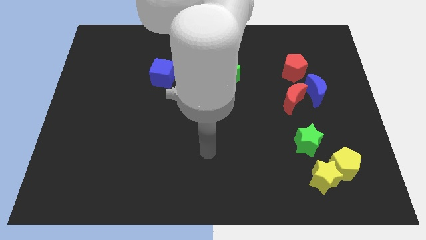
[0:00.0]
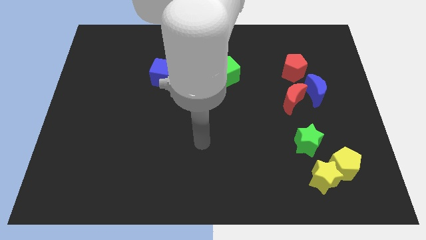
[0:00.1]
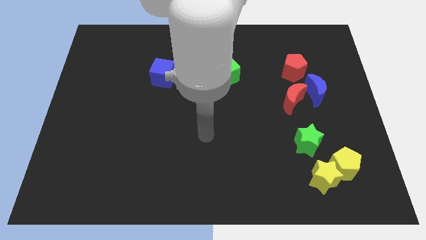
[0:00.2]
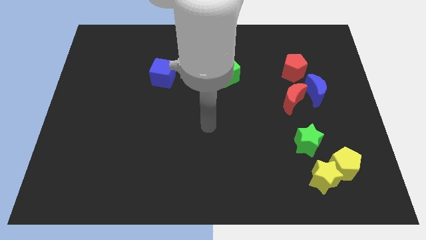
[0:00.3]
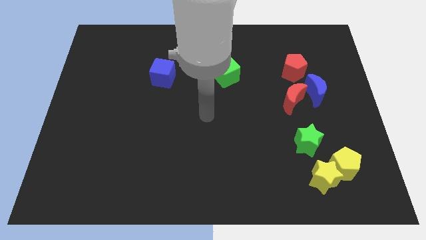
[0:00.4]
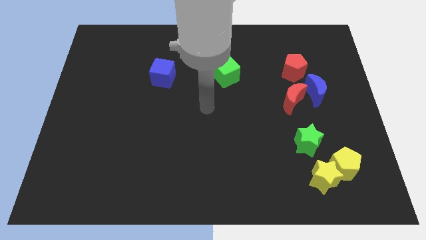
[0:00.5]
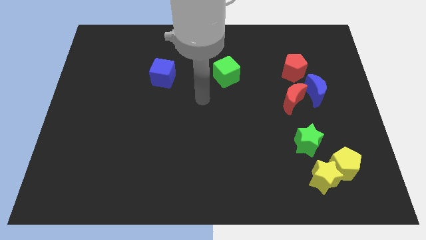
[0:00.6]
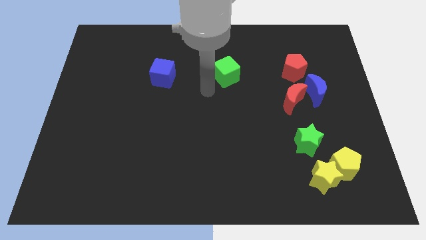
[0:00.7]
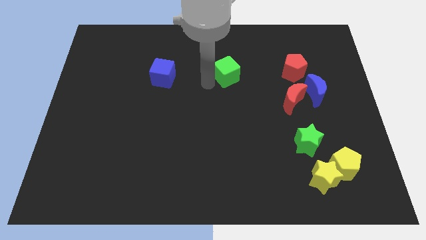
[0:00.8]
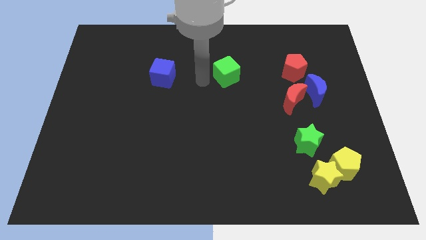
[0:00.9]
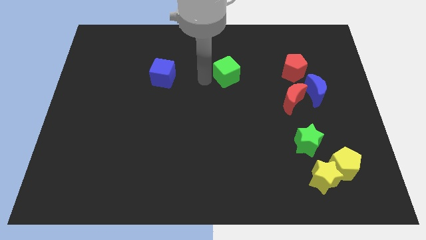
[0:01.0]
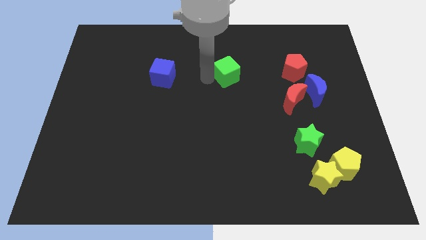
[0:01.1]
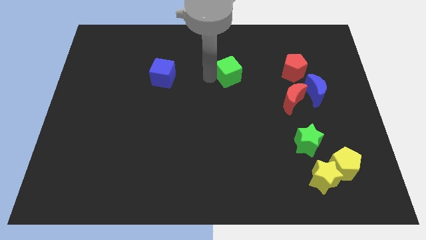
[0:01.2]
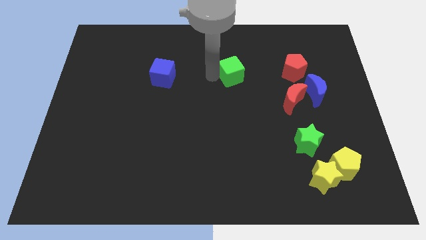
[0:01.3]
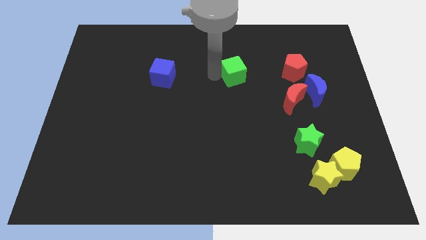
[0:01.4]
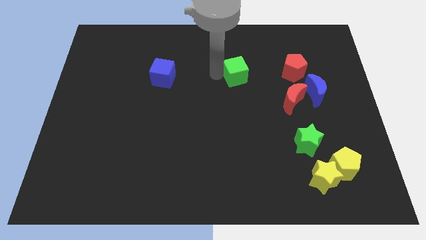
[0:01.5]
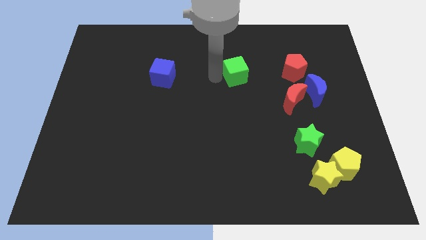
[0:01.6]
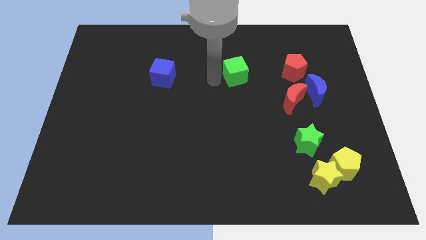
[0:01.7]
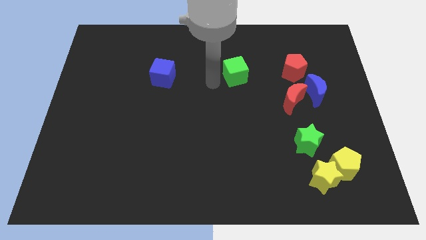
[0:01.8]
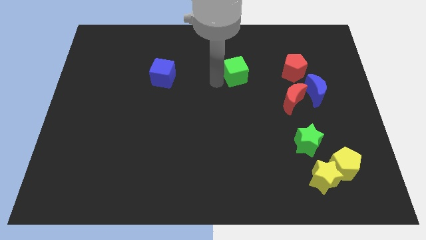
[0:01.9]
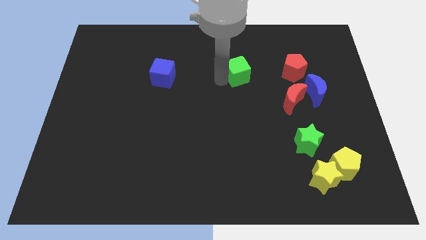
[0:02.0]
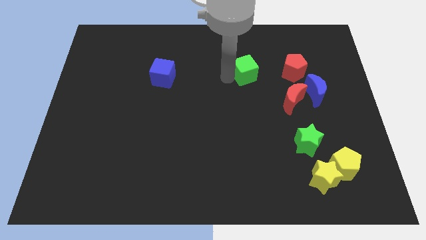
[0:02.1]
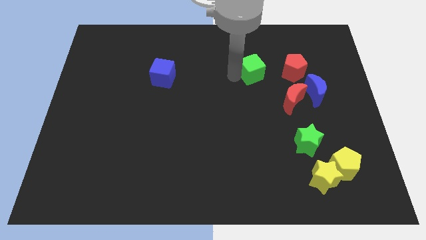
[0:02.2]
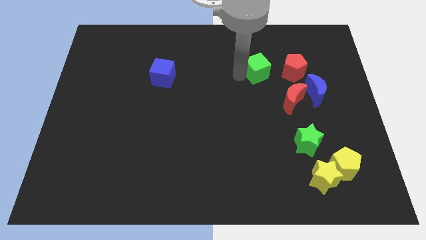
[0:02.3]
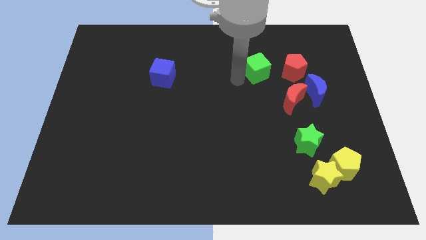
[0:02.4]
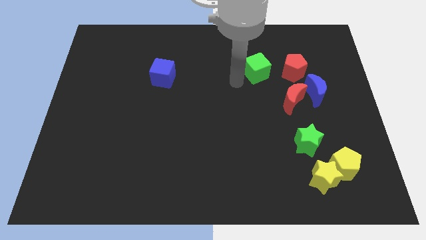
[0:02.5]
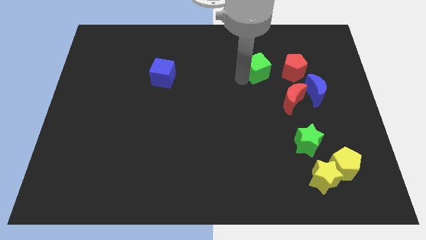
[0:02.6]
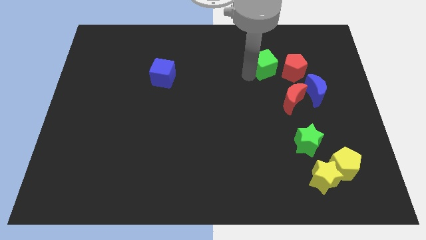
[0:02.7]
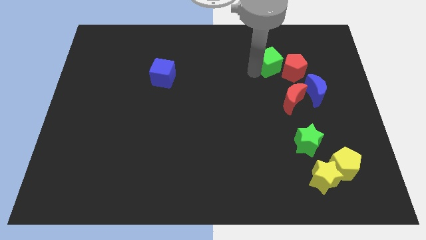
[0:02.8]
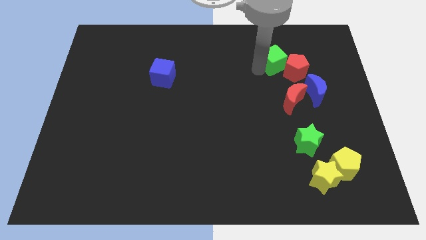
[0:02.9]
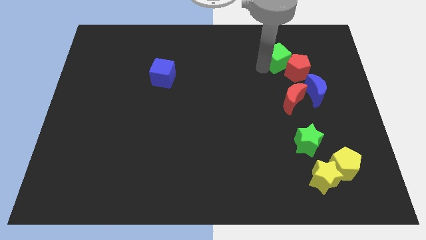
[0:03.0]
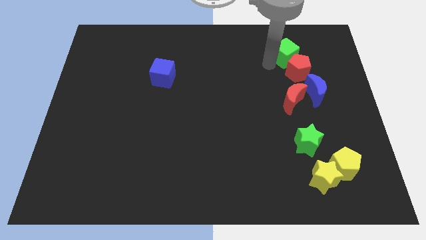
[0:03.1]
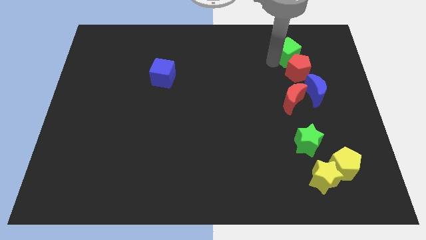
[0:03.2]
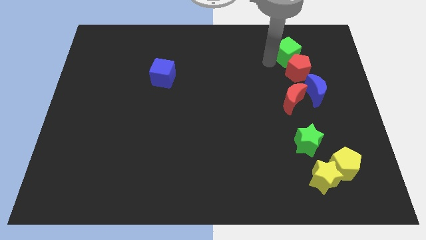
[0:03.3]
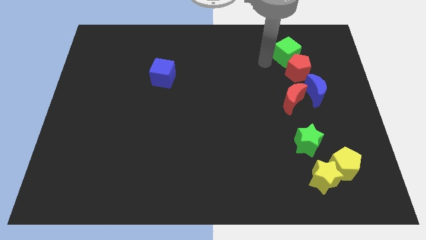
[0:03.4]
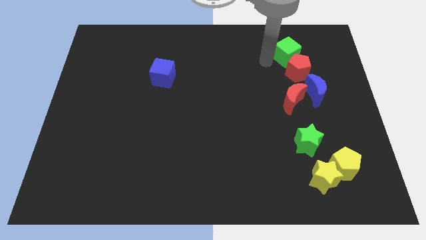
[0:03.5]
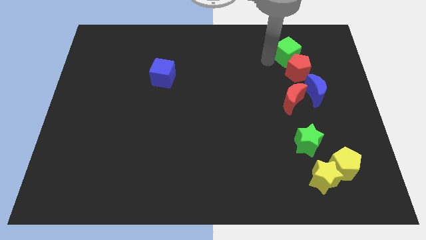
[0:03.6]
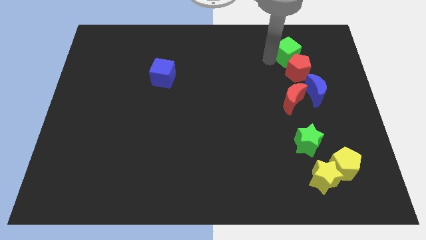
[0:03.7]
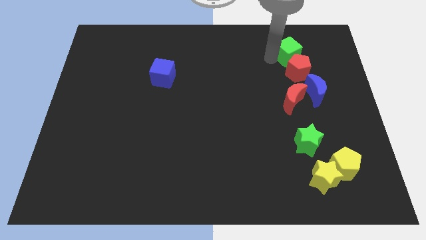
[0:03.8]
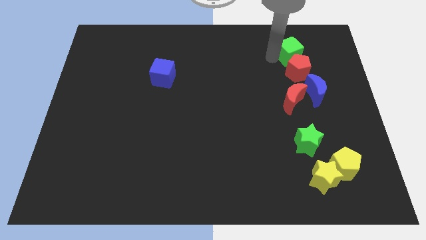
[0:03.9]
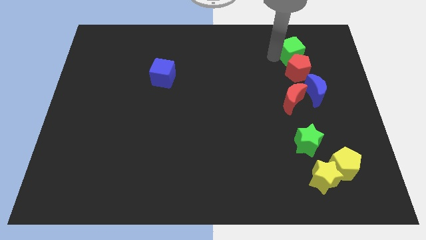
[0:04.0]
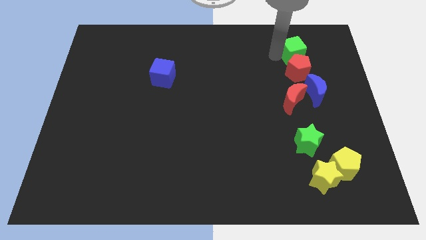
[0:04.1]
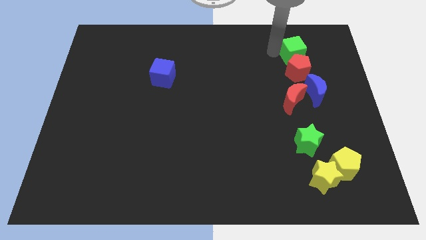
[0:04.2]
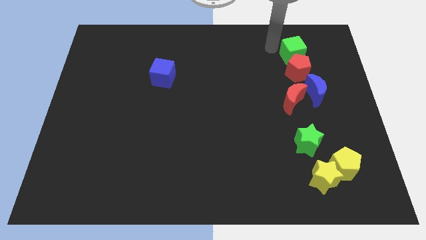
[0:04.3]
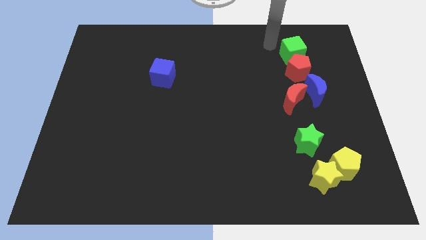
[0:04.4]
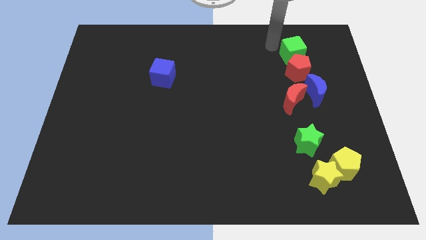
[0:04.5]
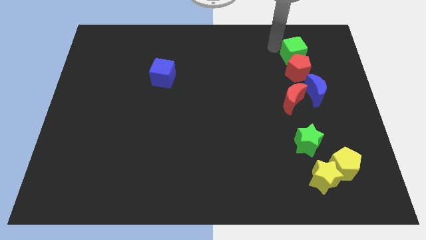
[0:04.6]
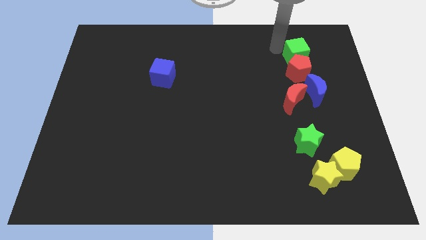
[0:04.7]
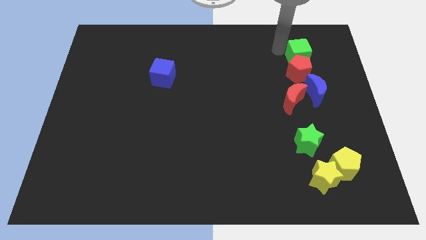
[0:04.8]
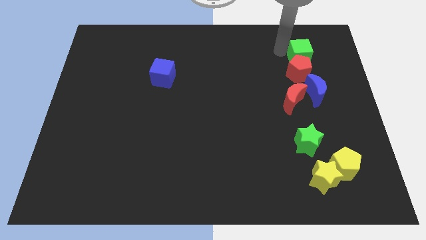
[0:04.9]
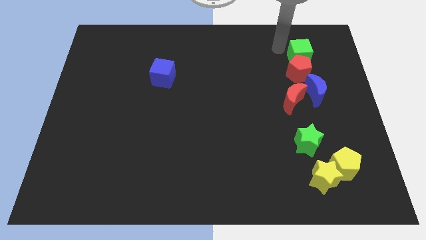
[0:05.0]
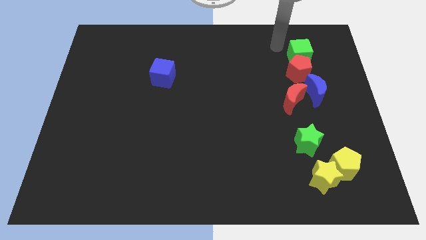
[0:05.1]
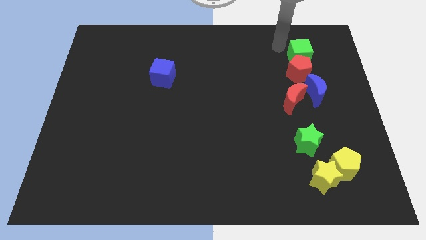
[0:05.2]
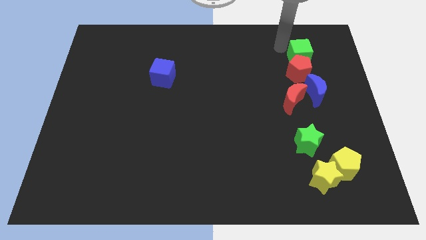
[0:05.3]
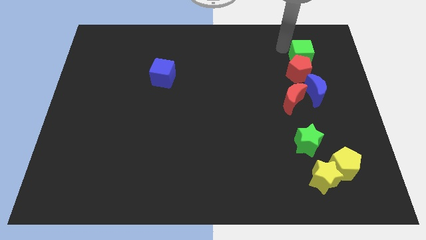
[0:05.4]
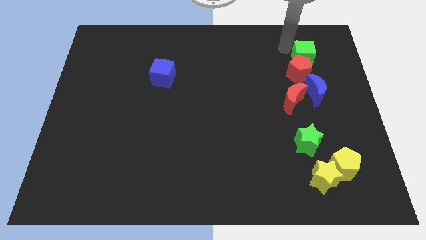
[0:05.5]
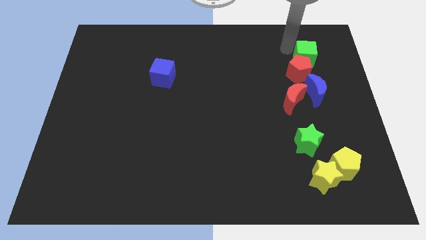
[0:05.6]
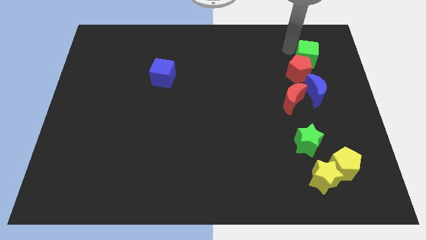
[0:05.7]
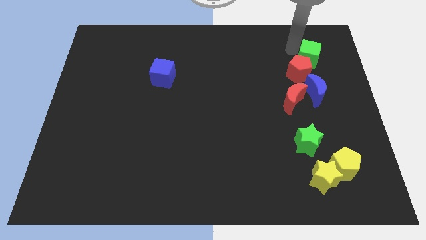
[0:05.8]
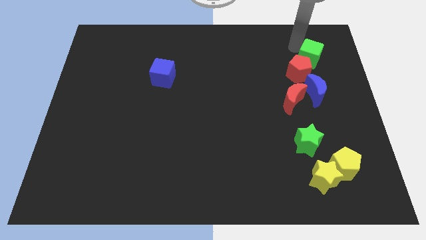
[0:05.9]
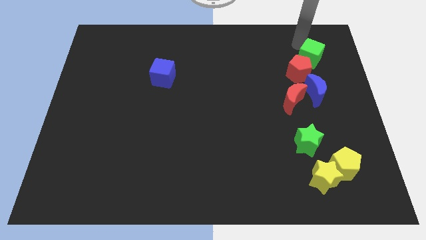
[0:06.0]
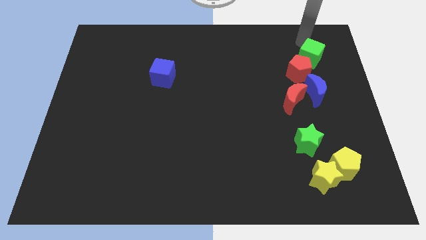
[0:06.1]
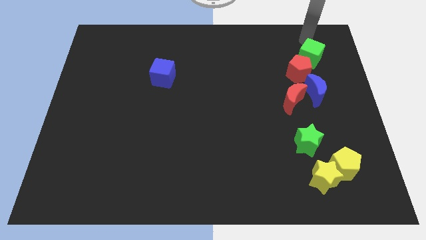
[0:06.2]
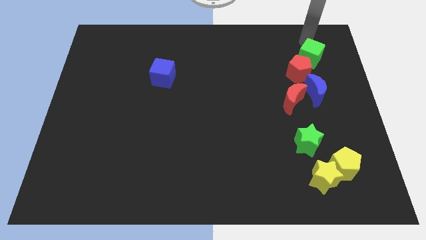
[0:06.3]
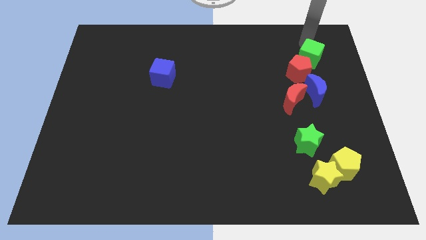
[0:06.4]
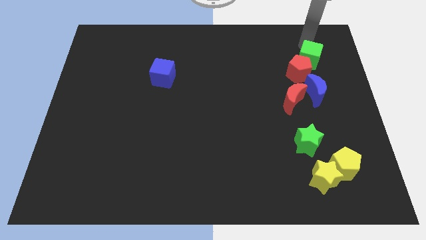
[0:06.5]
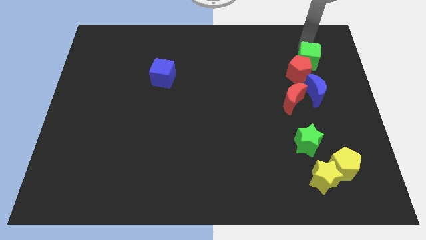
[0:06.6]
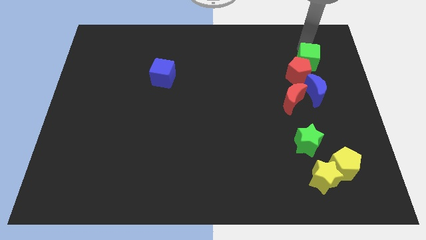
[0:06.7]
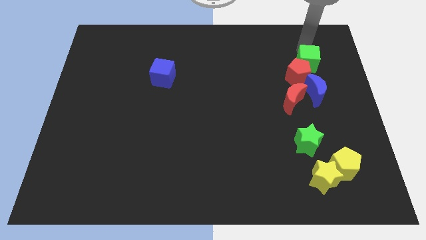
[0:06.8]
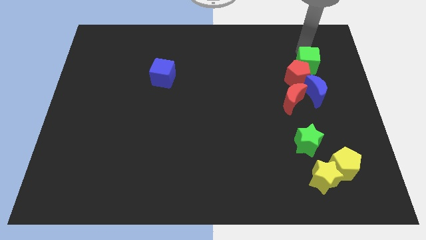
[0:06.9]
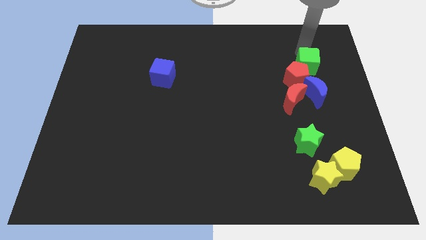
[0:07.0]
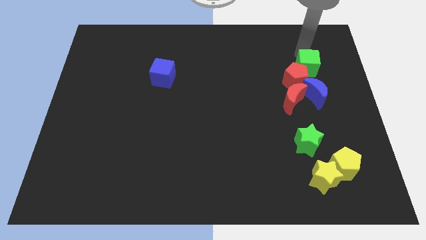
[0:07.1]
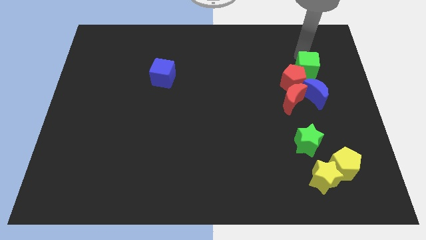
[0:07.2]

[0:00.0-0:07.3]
slide the green cube to the top right side of the red moon

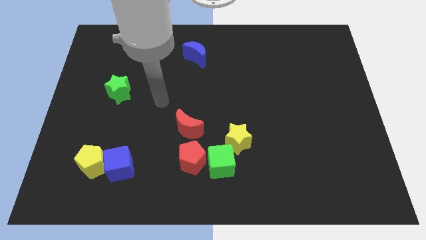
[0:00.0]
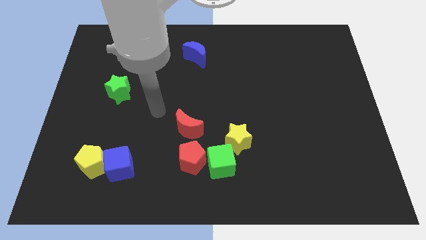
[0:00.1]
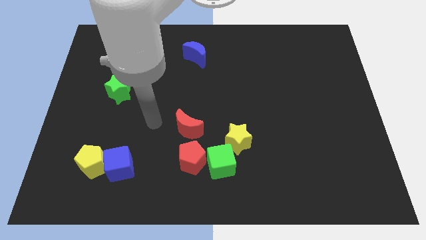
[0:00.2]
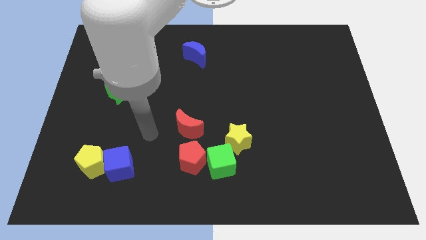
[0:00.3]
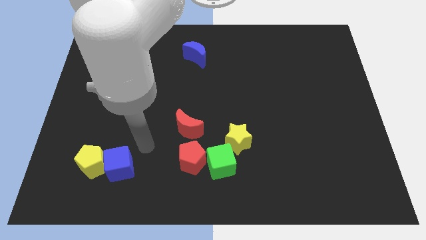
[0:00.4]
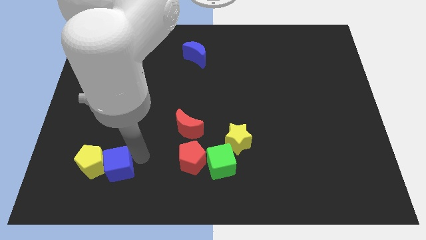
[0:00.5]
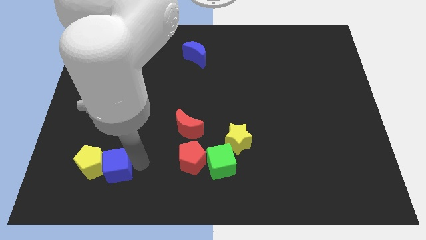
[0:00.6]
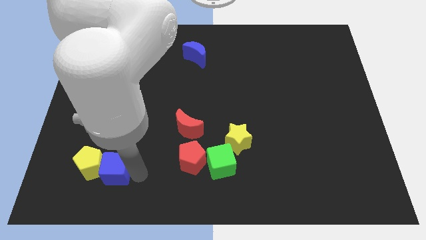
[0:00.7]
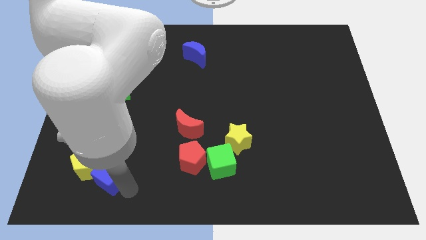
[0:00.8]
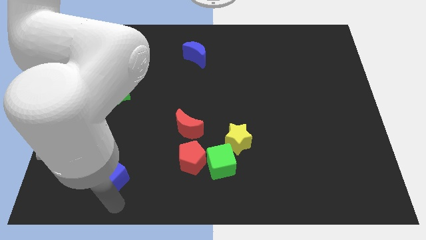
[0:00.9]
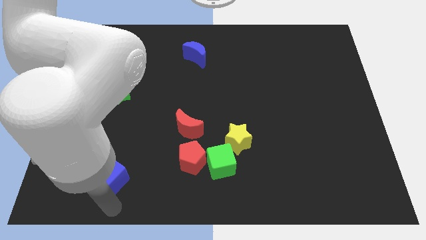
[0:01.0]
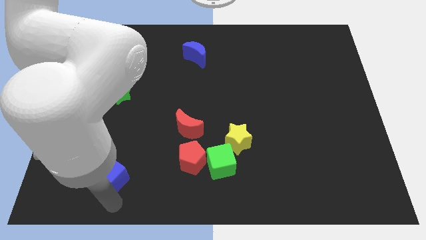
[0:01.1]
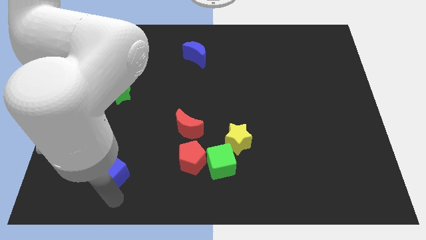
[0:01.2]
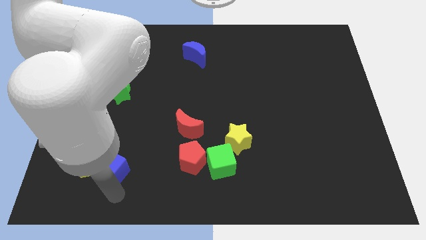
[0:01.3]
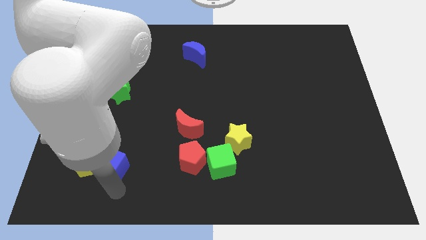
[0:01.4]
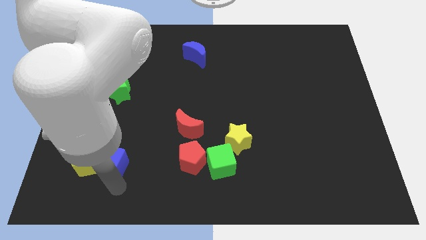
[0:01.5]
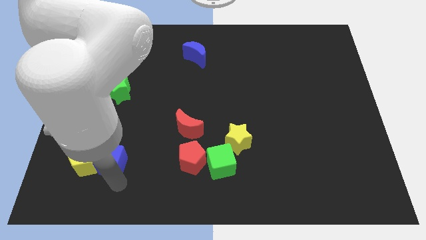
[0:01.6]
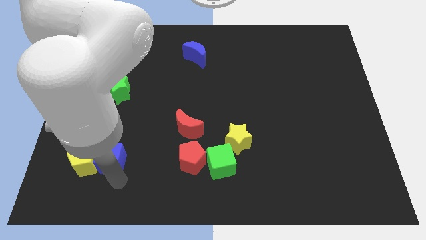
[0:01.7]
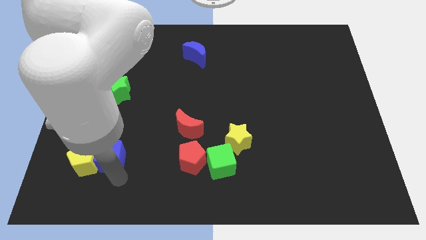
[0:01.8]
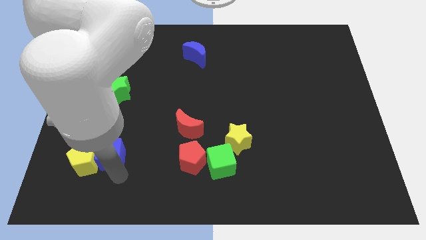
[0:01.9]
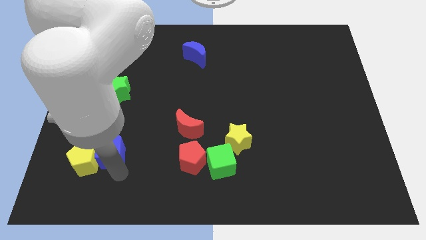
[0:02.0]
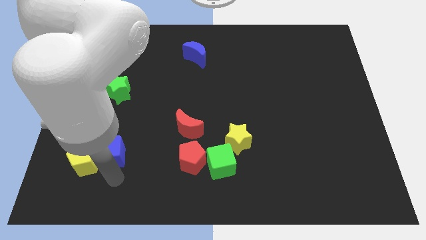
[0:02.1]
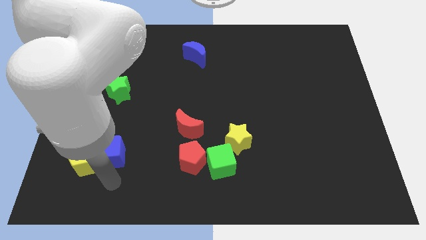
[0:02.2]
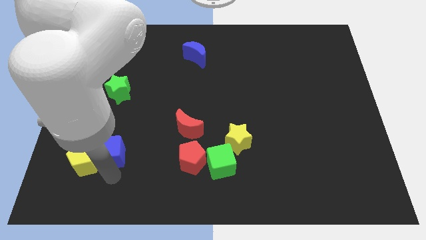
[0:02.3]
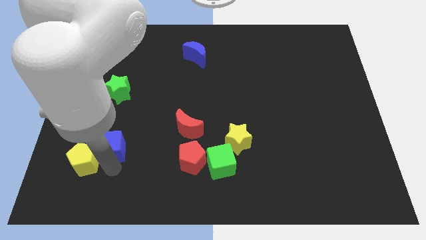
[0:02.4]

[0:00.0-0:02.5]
put the blue cube to the bottom of the green star
